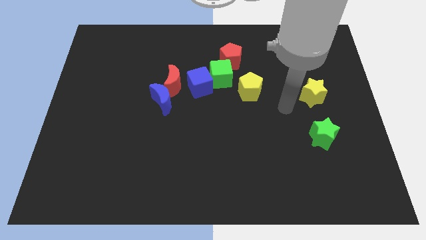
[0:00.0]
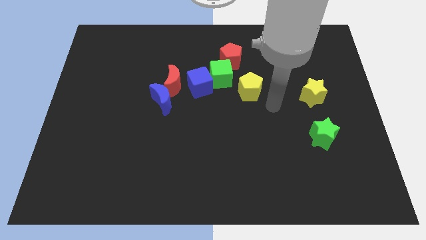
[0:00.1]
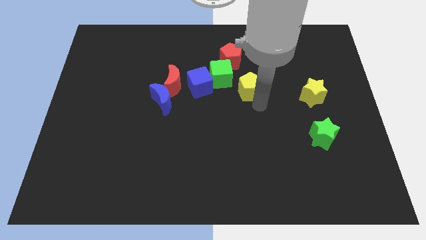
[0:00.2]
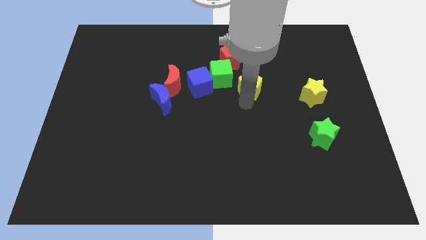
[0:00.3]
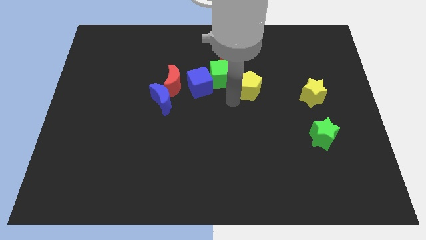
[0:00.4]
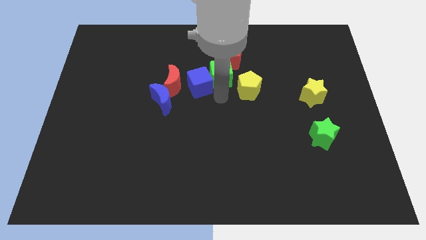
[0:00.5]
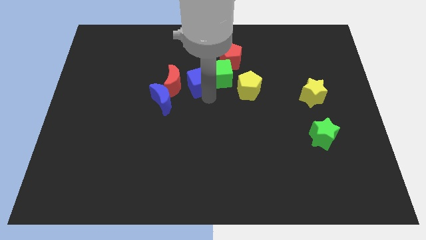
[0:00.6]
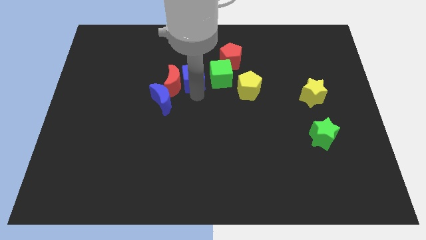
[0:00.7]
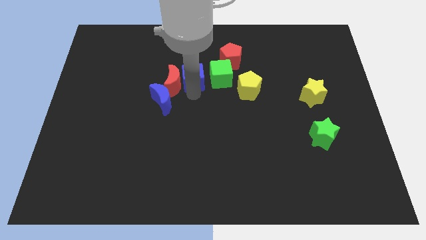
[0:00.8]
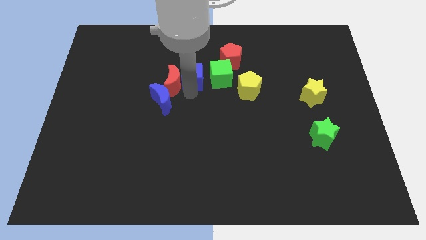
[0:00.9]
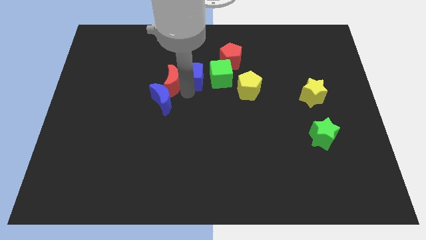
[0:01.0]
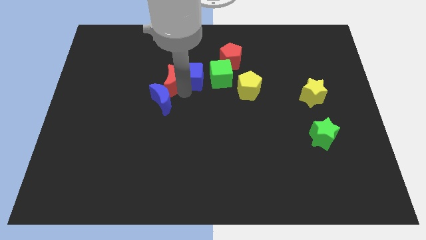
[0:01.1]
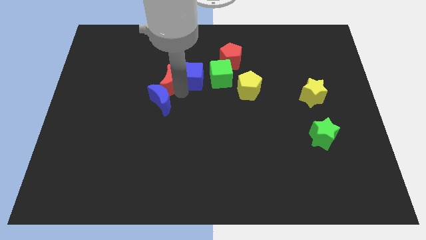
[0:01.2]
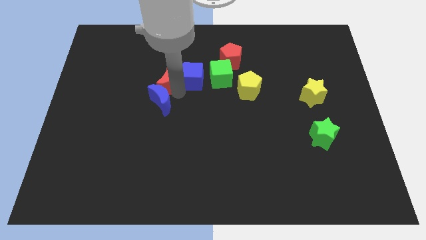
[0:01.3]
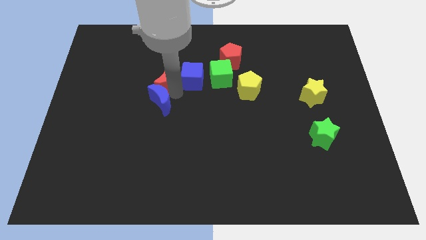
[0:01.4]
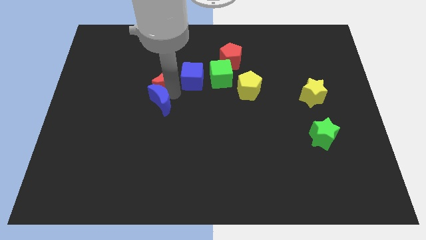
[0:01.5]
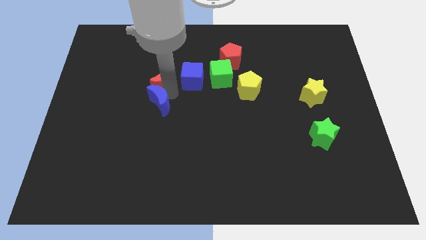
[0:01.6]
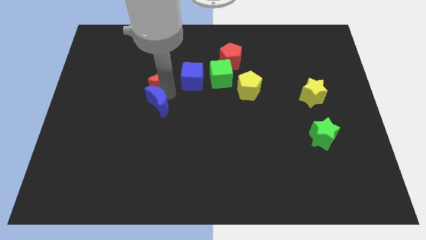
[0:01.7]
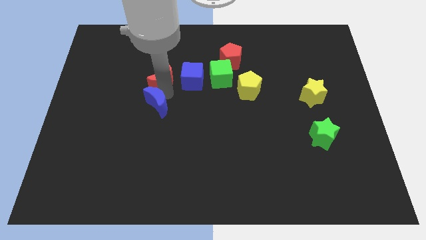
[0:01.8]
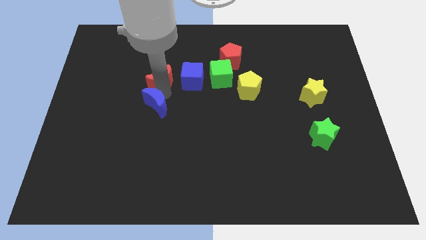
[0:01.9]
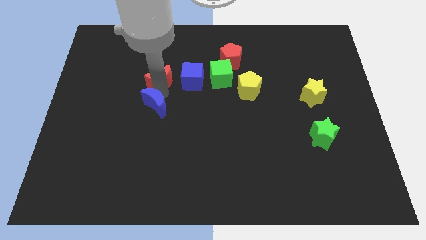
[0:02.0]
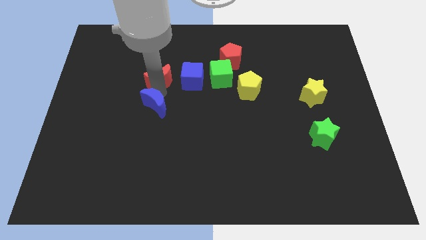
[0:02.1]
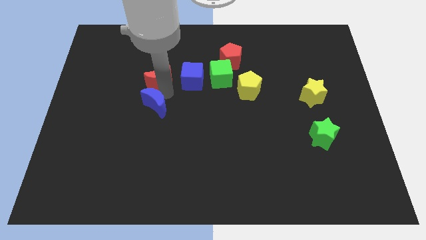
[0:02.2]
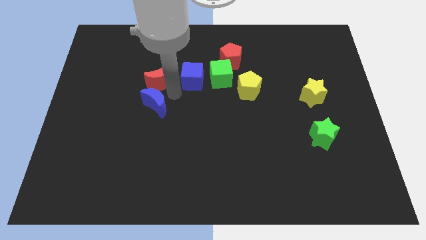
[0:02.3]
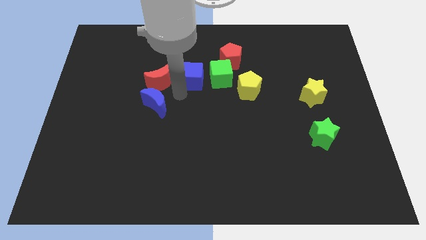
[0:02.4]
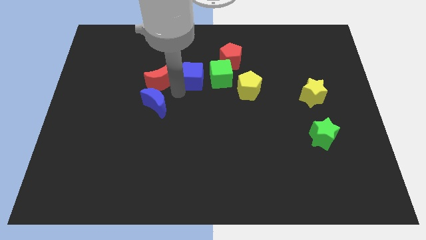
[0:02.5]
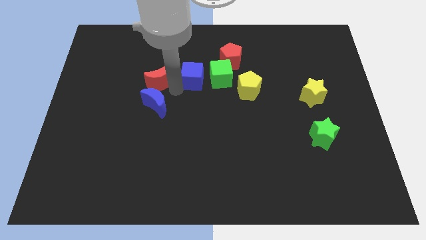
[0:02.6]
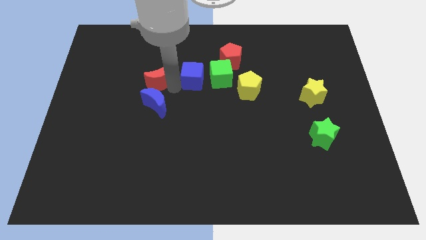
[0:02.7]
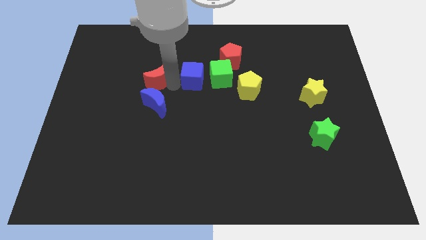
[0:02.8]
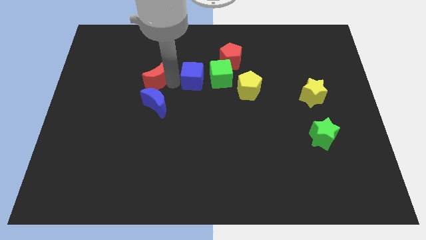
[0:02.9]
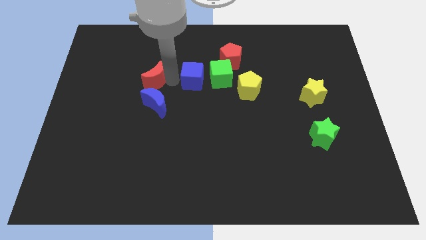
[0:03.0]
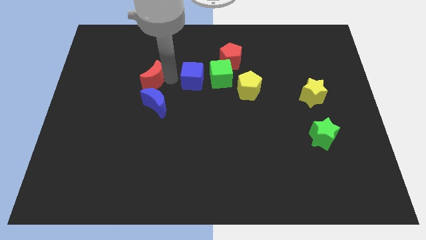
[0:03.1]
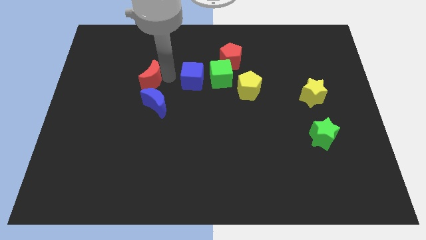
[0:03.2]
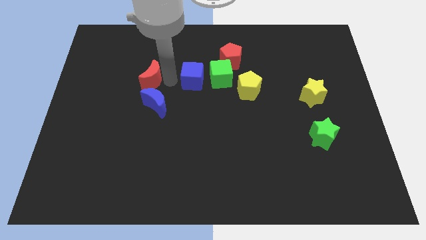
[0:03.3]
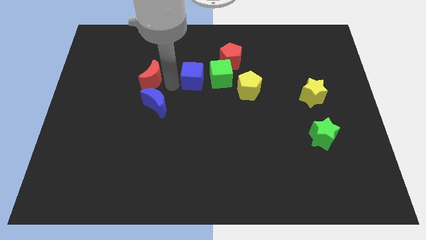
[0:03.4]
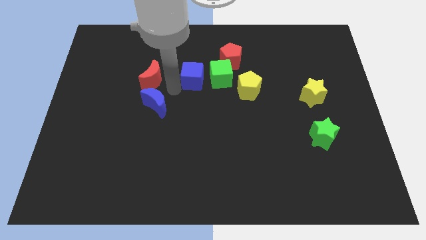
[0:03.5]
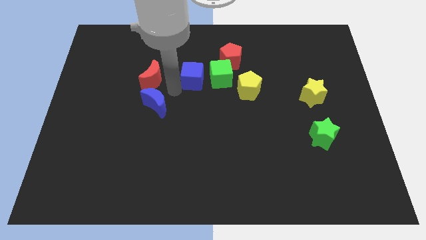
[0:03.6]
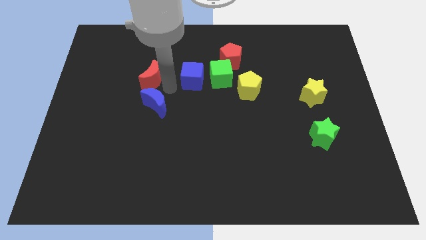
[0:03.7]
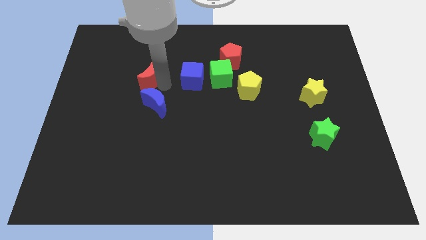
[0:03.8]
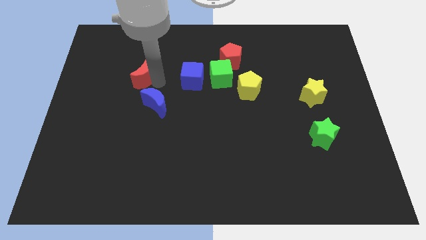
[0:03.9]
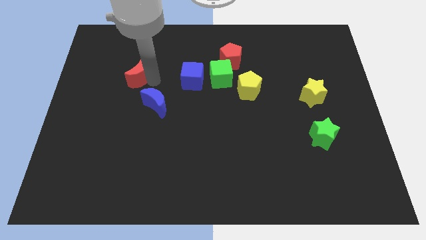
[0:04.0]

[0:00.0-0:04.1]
pull the red moon apart from the blue moon and blue cube

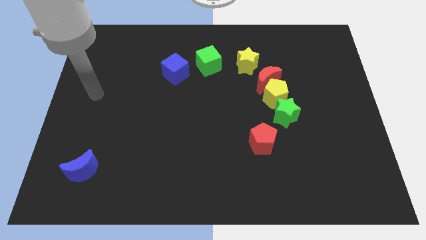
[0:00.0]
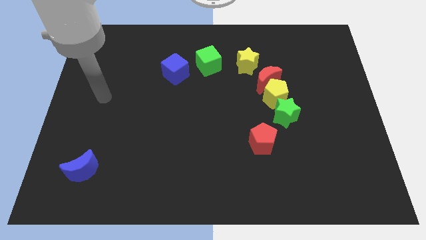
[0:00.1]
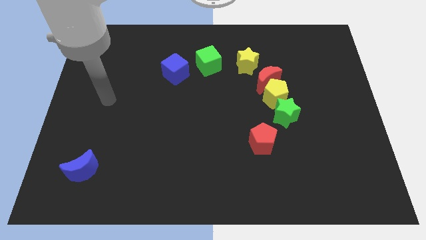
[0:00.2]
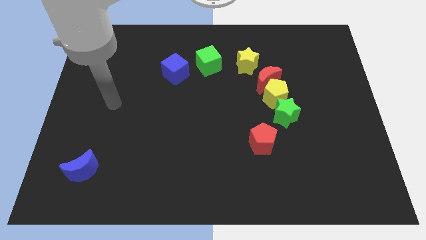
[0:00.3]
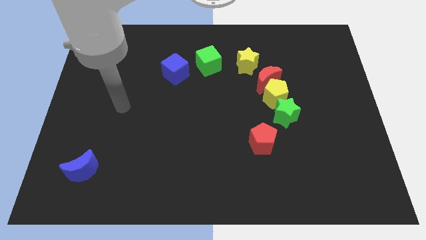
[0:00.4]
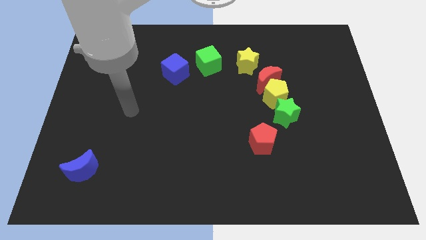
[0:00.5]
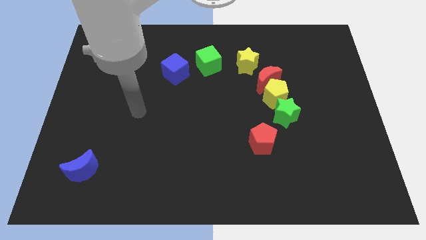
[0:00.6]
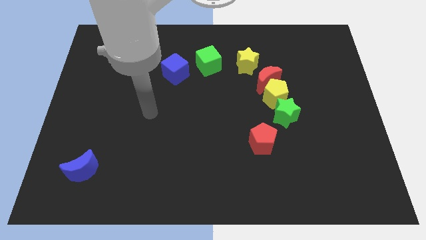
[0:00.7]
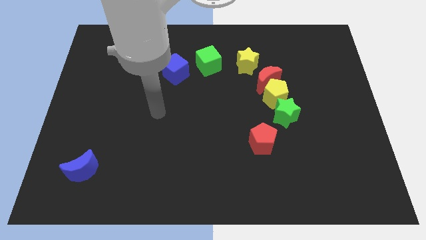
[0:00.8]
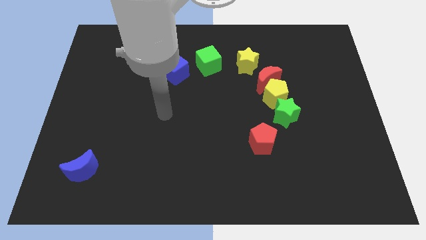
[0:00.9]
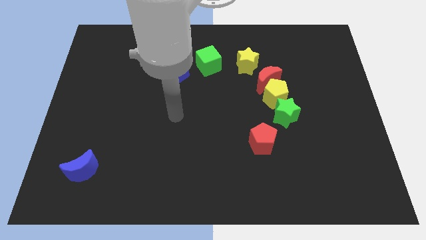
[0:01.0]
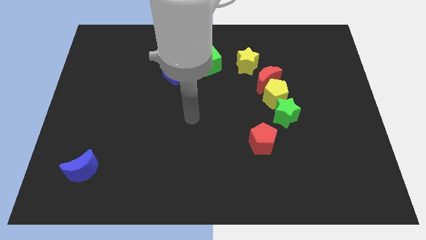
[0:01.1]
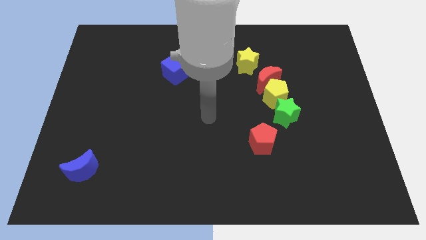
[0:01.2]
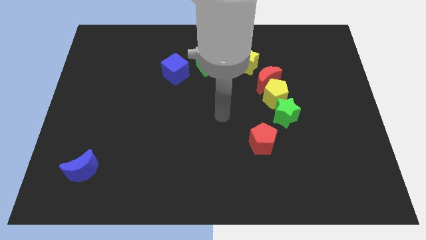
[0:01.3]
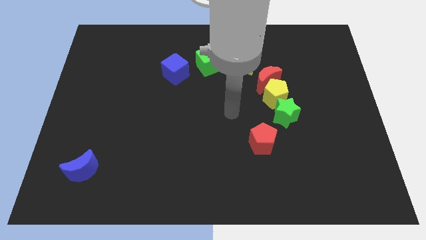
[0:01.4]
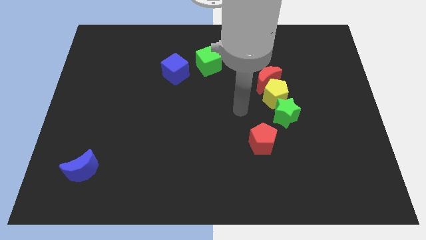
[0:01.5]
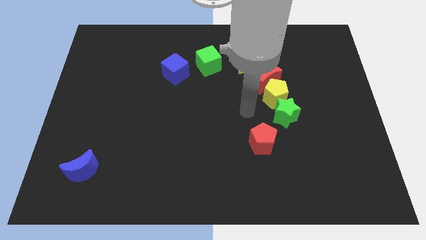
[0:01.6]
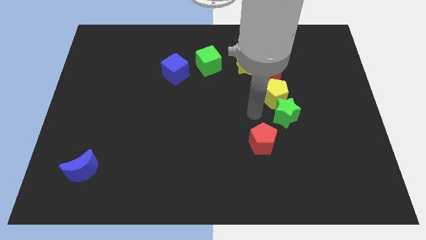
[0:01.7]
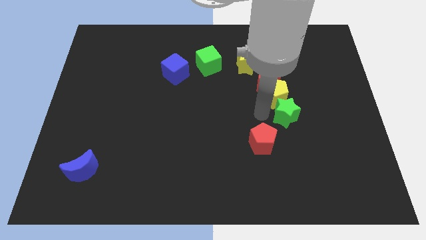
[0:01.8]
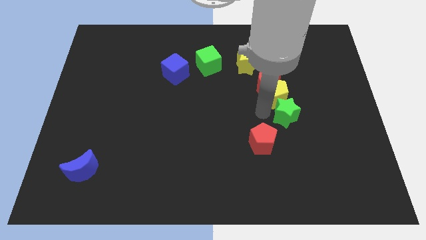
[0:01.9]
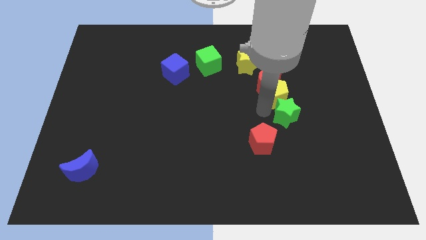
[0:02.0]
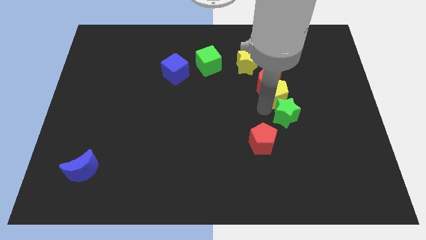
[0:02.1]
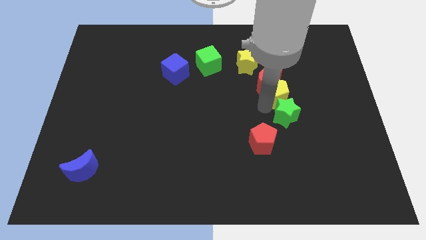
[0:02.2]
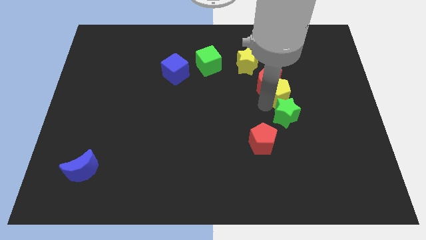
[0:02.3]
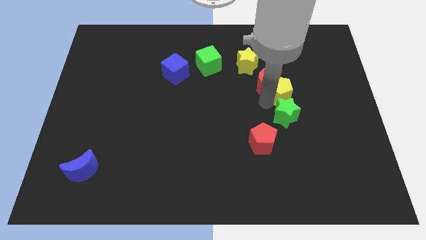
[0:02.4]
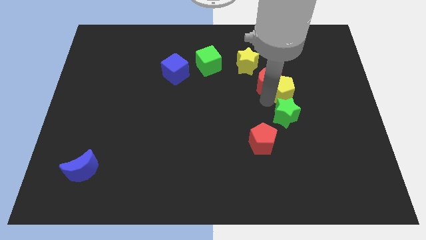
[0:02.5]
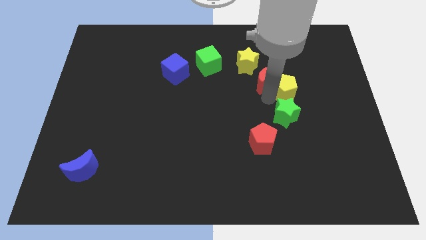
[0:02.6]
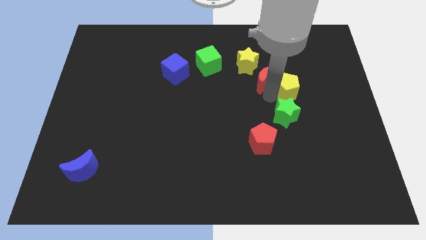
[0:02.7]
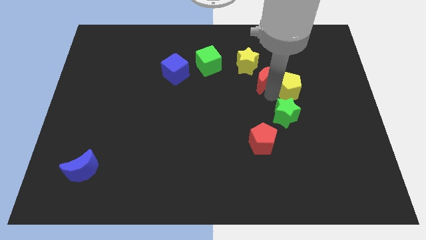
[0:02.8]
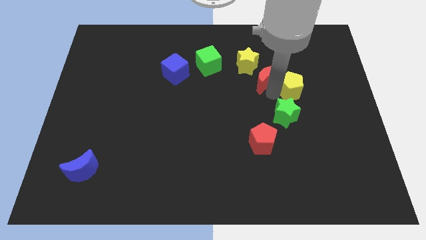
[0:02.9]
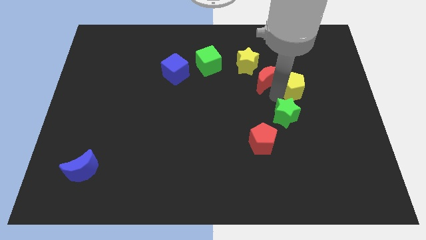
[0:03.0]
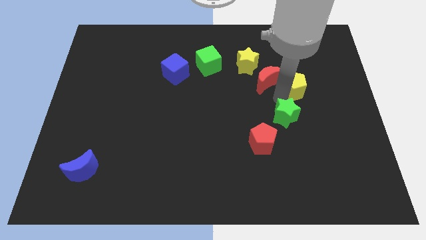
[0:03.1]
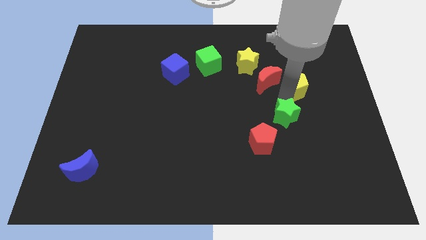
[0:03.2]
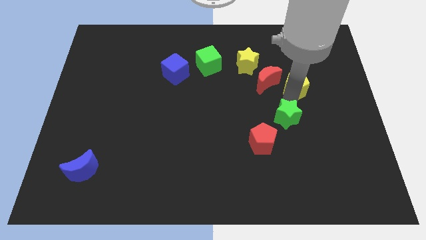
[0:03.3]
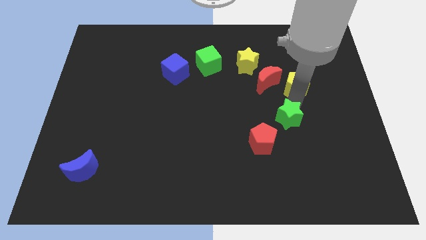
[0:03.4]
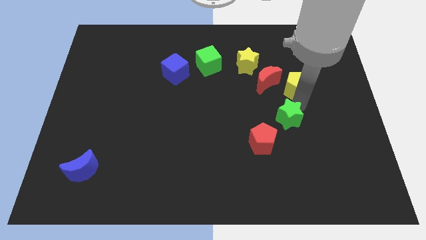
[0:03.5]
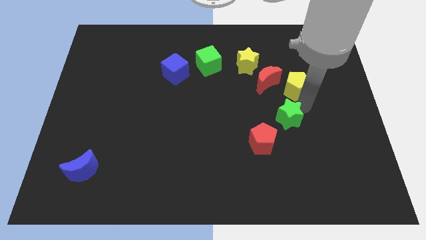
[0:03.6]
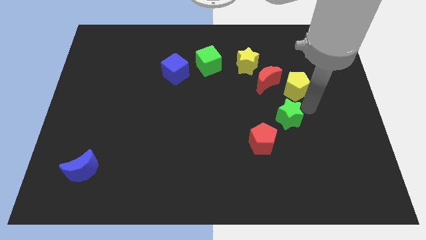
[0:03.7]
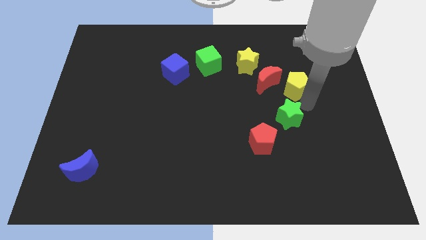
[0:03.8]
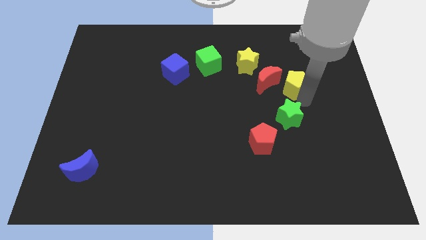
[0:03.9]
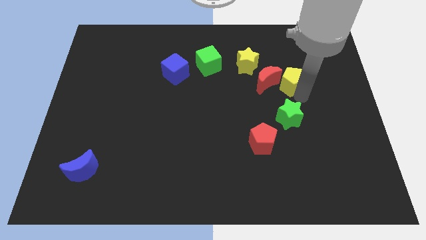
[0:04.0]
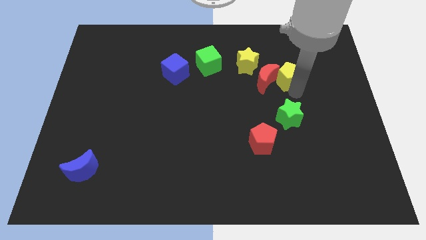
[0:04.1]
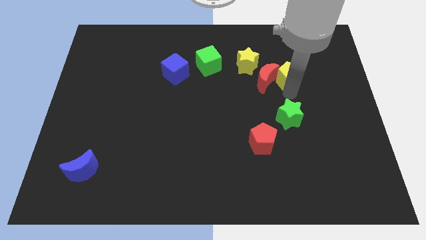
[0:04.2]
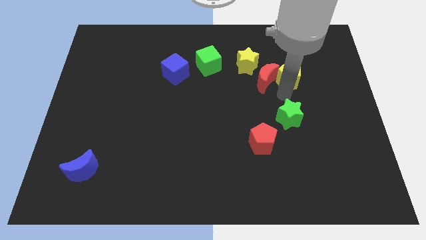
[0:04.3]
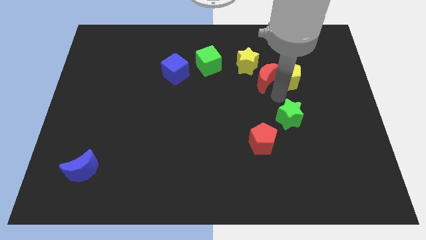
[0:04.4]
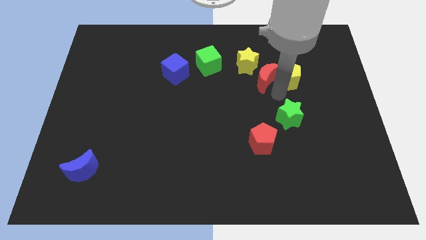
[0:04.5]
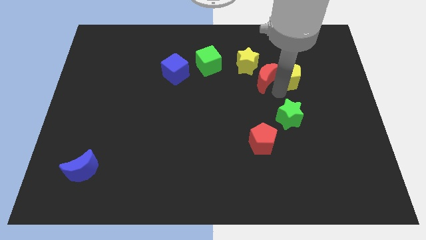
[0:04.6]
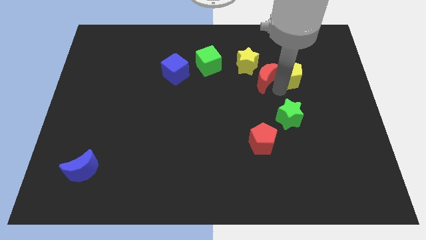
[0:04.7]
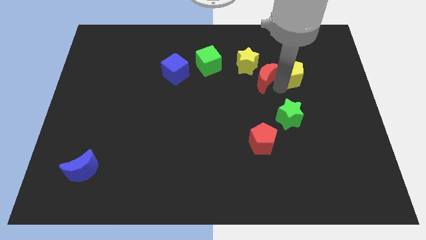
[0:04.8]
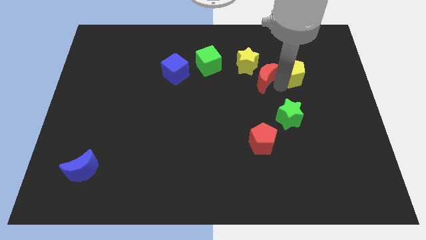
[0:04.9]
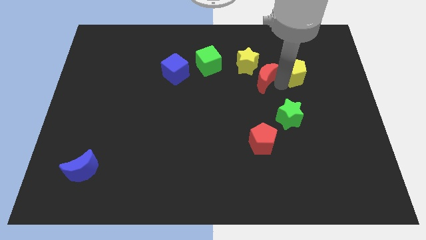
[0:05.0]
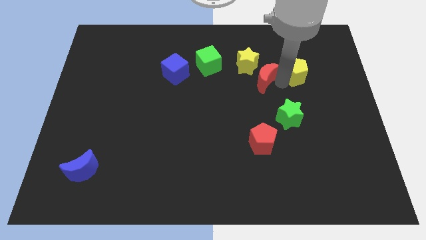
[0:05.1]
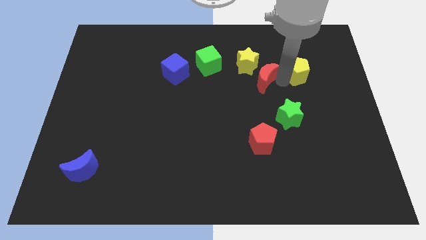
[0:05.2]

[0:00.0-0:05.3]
pull the yellow pentagon apart from the red moon and green star
